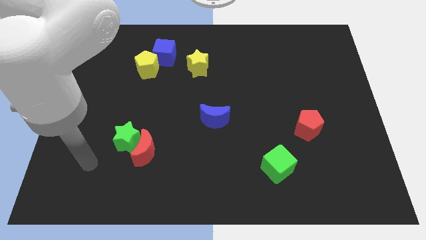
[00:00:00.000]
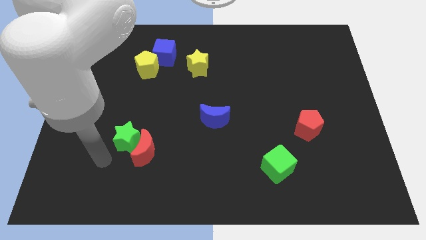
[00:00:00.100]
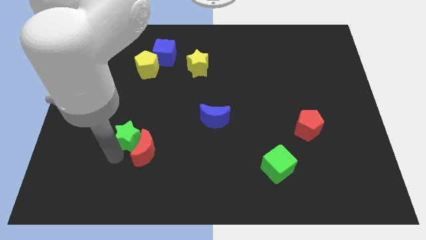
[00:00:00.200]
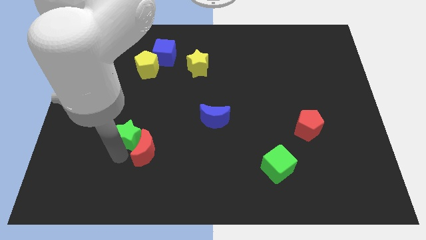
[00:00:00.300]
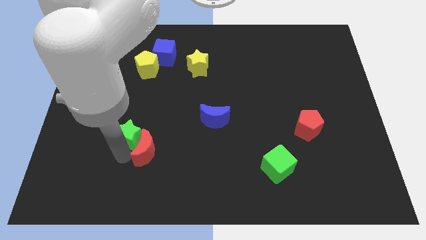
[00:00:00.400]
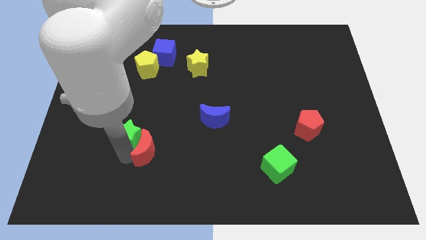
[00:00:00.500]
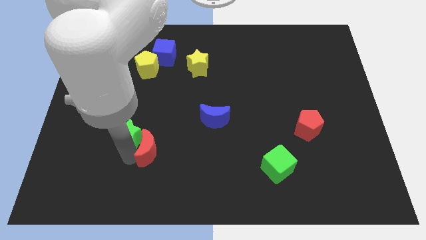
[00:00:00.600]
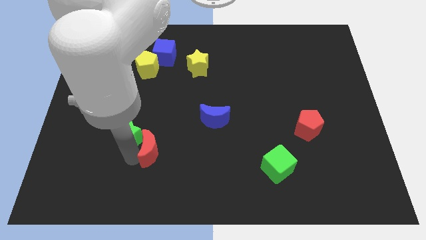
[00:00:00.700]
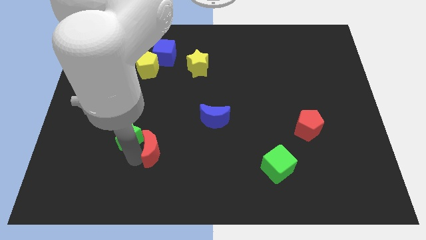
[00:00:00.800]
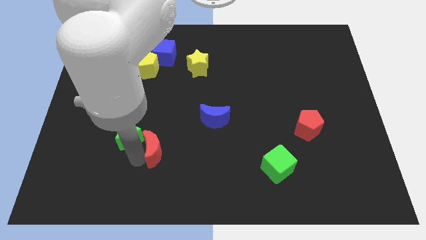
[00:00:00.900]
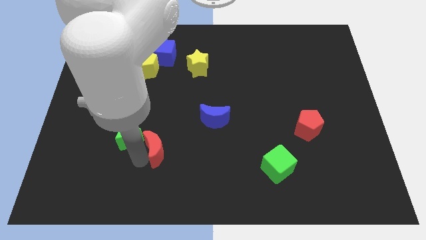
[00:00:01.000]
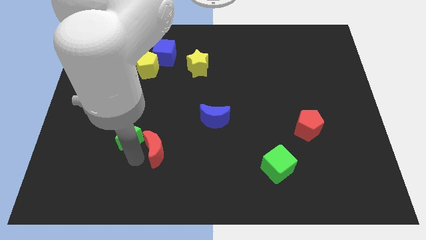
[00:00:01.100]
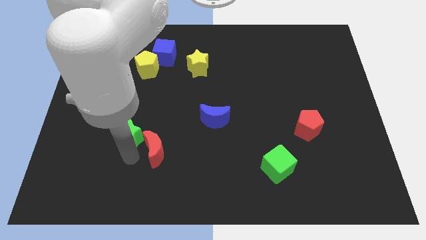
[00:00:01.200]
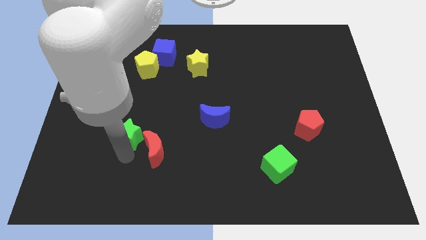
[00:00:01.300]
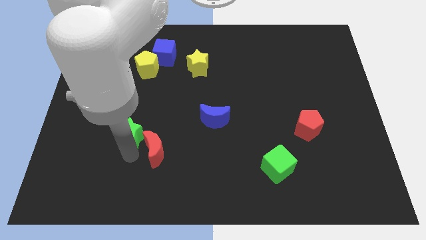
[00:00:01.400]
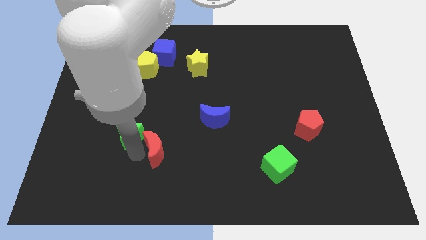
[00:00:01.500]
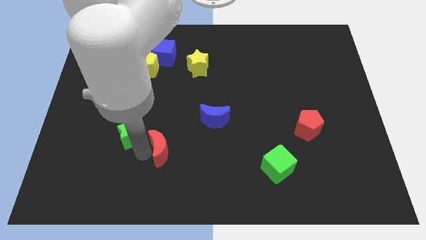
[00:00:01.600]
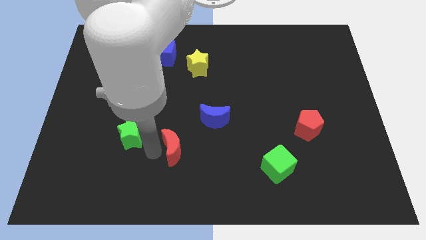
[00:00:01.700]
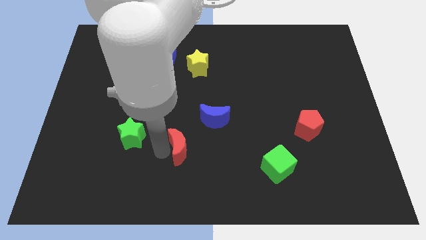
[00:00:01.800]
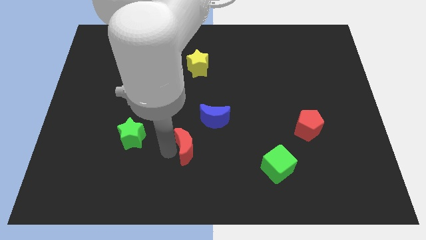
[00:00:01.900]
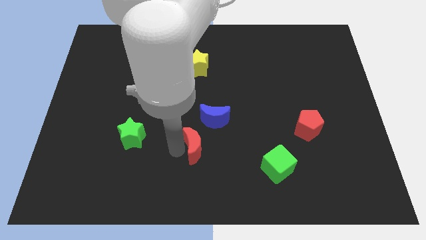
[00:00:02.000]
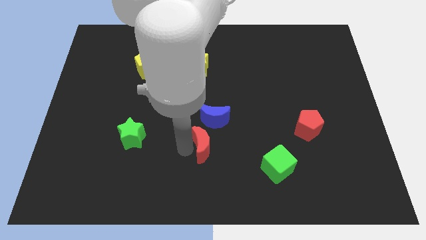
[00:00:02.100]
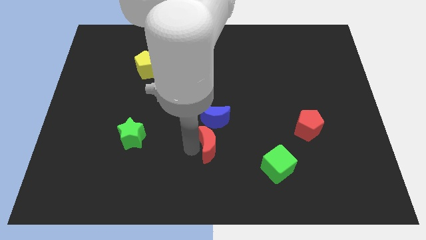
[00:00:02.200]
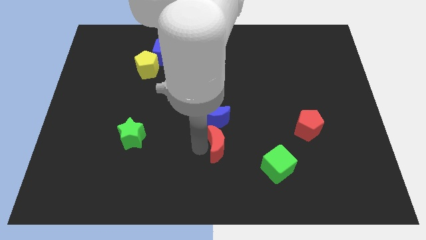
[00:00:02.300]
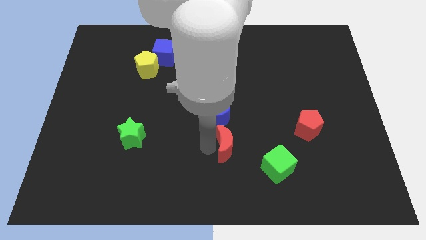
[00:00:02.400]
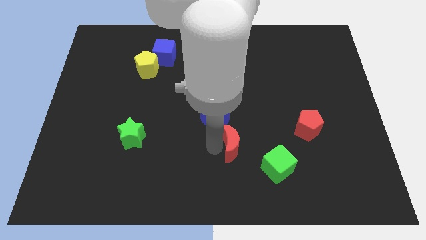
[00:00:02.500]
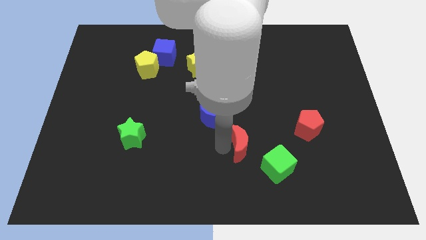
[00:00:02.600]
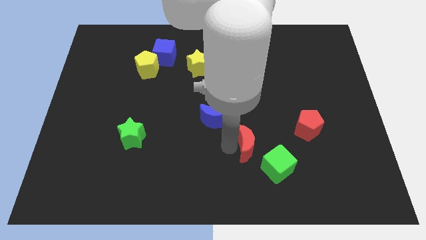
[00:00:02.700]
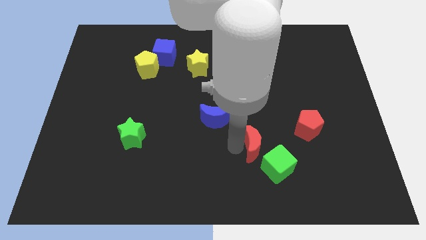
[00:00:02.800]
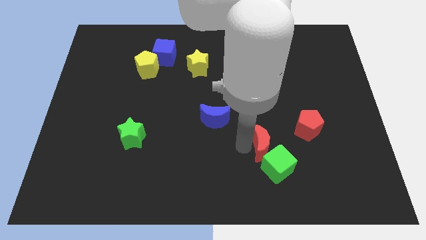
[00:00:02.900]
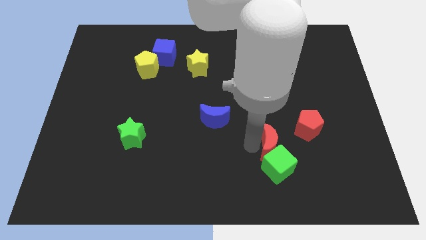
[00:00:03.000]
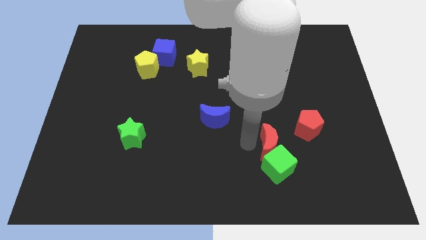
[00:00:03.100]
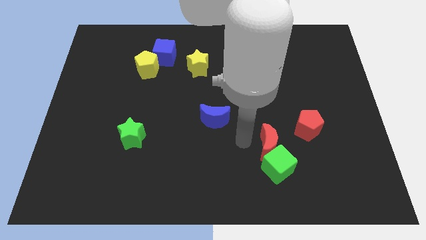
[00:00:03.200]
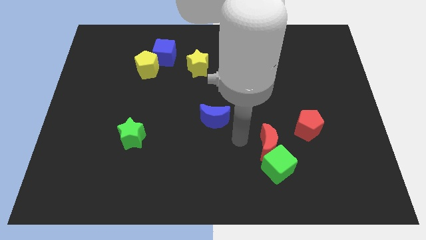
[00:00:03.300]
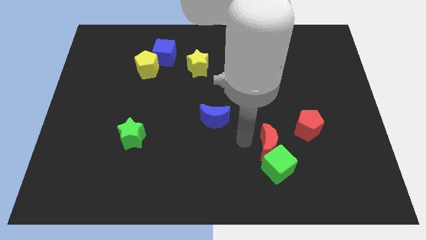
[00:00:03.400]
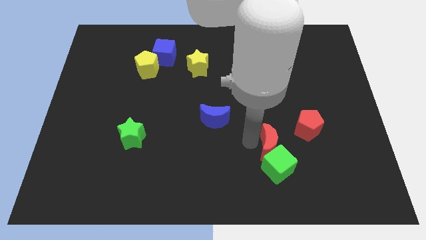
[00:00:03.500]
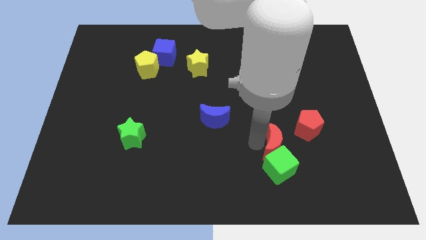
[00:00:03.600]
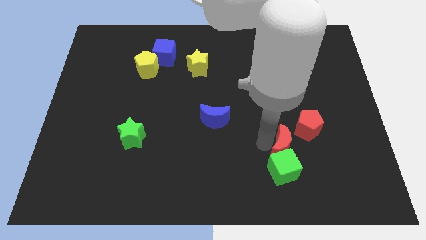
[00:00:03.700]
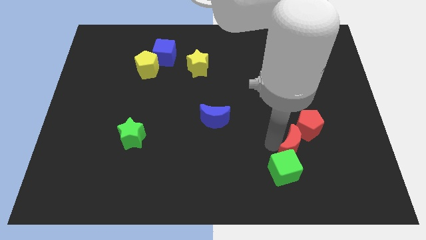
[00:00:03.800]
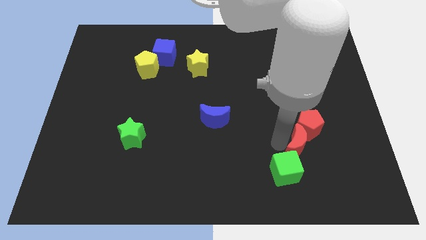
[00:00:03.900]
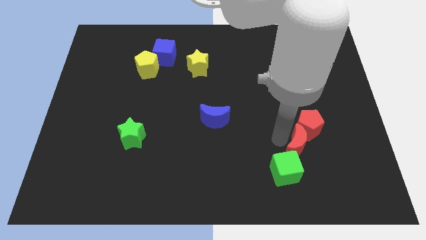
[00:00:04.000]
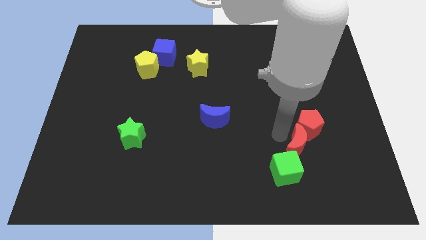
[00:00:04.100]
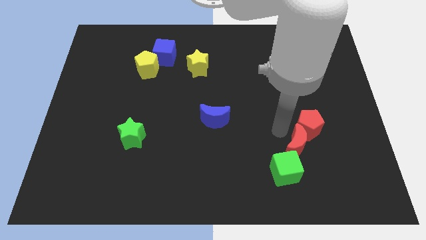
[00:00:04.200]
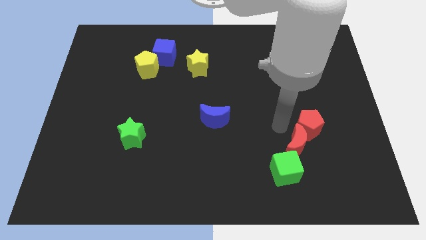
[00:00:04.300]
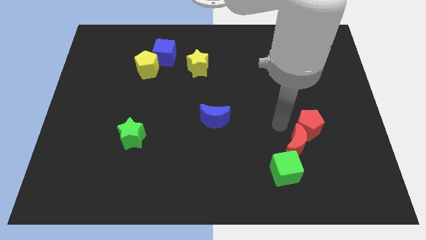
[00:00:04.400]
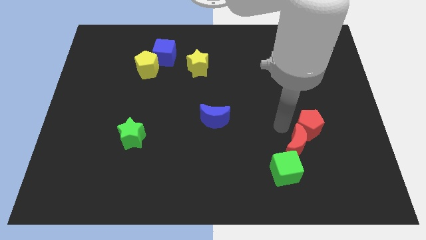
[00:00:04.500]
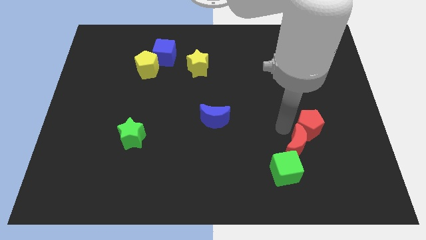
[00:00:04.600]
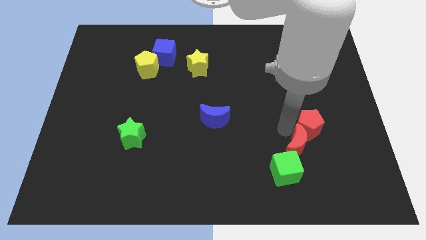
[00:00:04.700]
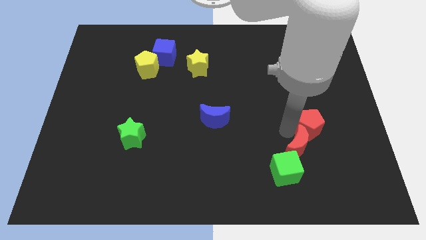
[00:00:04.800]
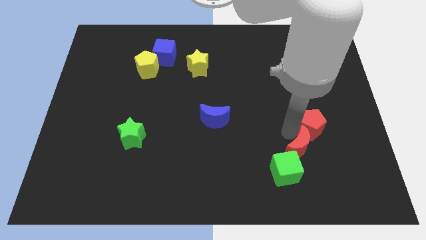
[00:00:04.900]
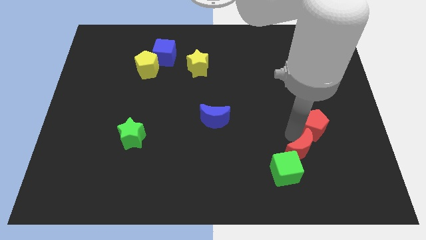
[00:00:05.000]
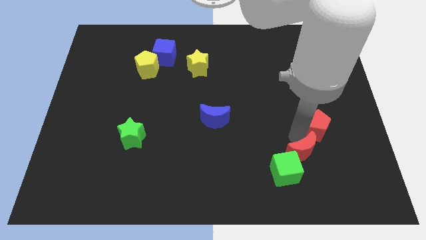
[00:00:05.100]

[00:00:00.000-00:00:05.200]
put the red moon just right of the green cube

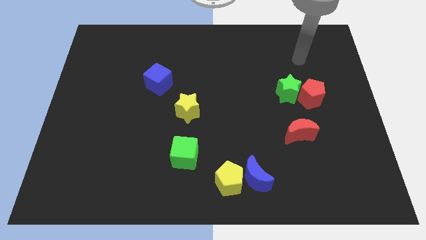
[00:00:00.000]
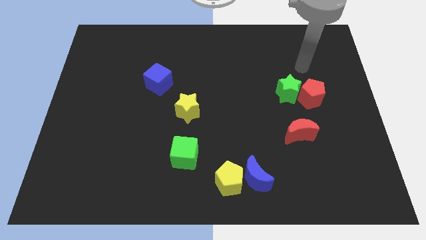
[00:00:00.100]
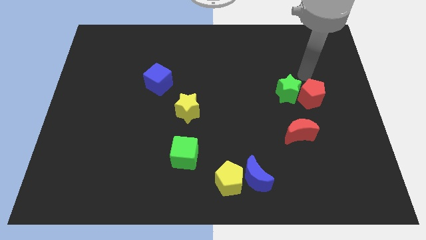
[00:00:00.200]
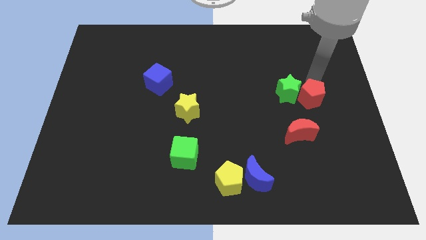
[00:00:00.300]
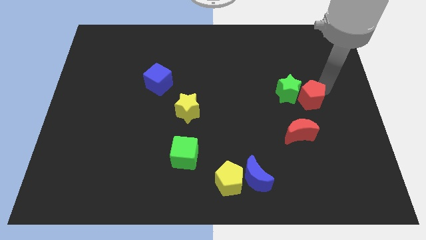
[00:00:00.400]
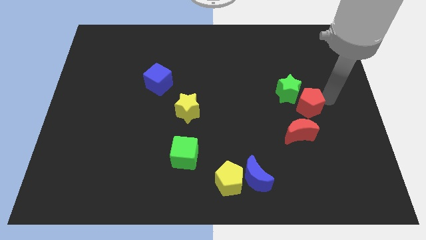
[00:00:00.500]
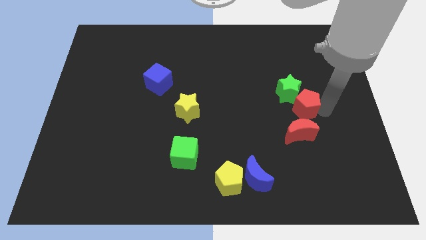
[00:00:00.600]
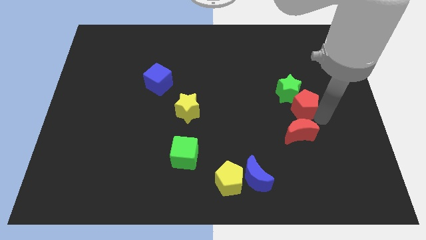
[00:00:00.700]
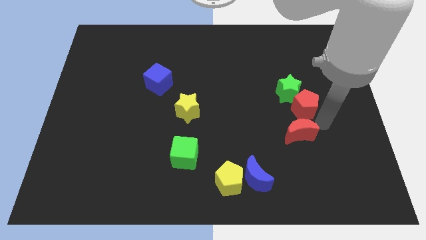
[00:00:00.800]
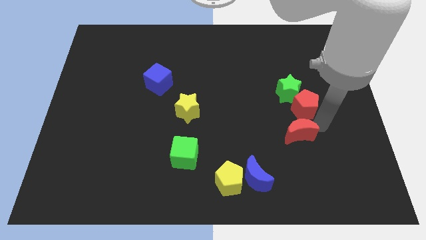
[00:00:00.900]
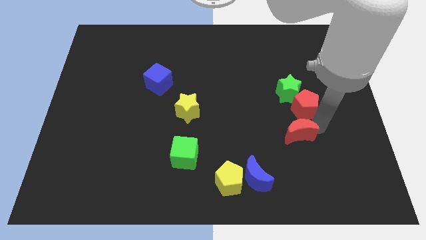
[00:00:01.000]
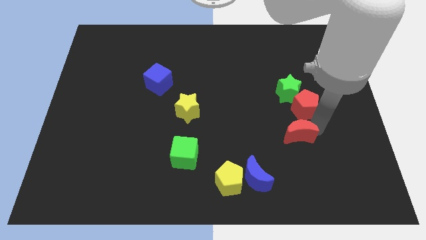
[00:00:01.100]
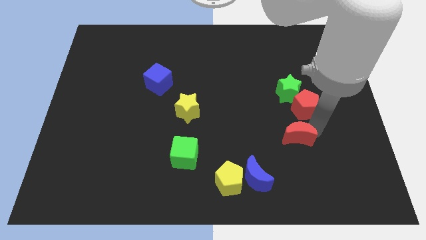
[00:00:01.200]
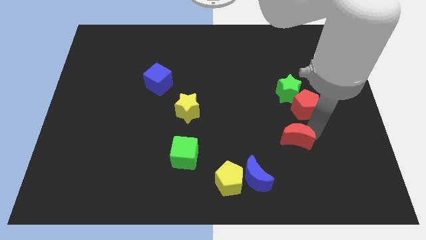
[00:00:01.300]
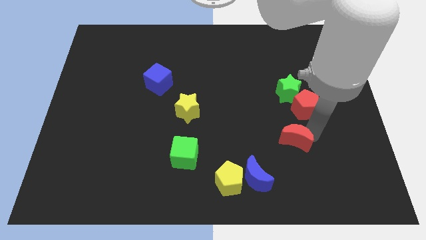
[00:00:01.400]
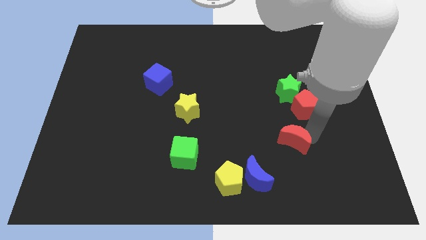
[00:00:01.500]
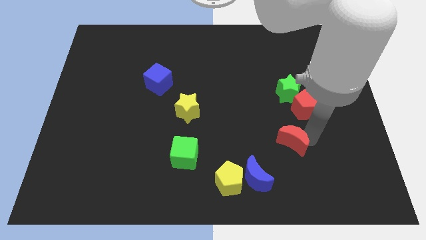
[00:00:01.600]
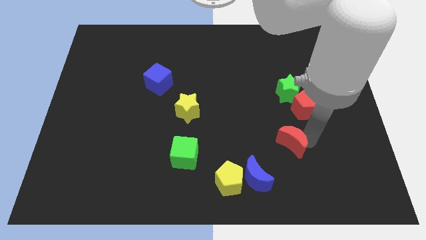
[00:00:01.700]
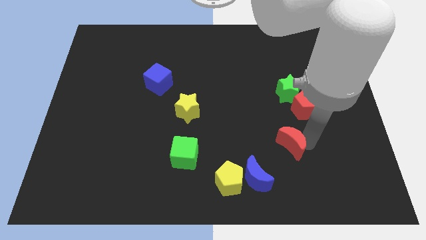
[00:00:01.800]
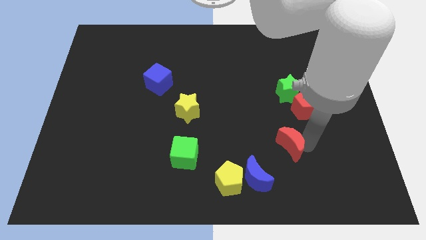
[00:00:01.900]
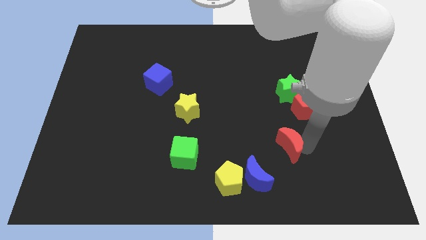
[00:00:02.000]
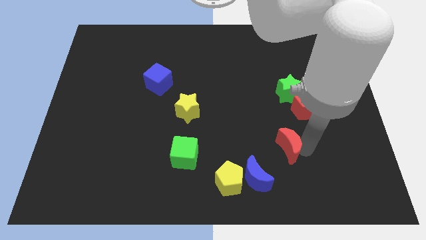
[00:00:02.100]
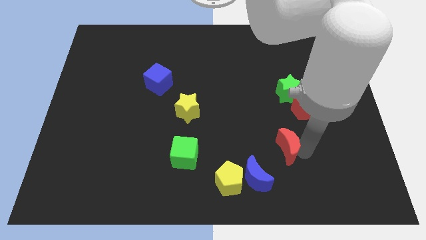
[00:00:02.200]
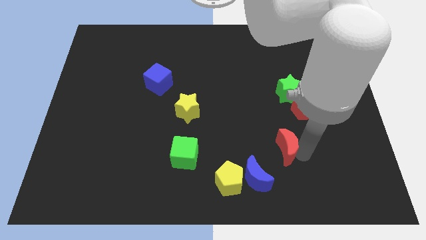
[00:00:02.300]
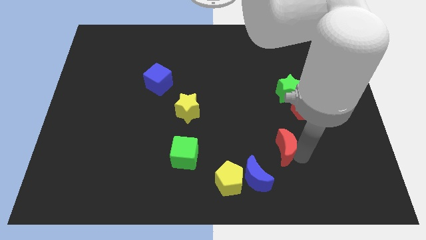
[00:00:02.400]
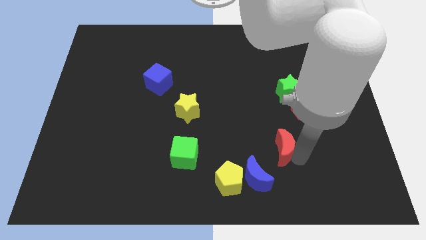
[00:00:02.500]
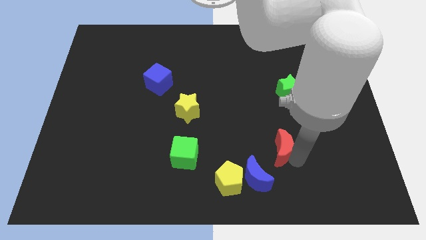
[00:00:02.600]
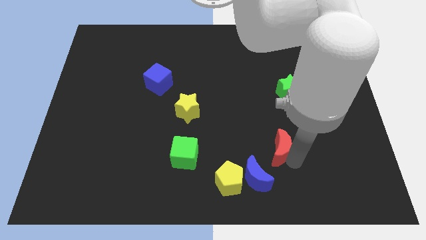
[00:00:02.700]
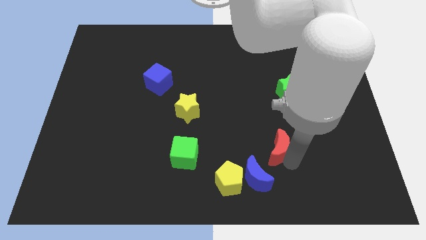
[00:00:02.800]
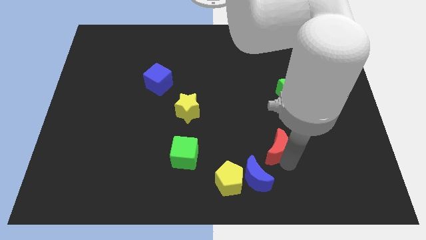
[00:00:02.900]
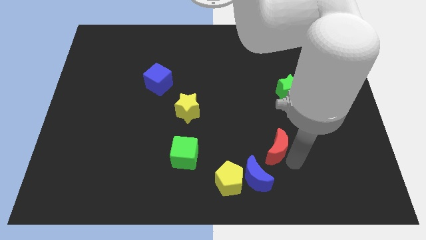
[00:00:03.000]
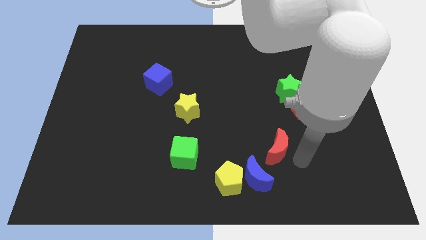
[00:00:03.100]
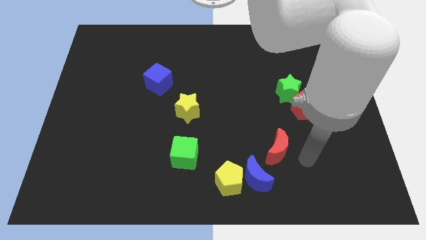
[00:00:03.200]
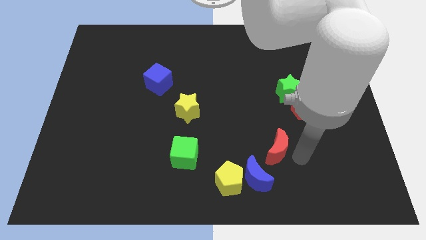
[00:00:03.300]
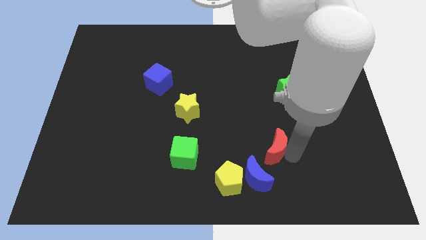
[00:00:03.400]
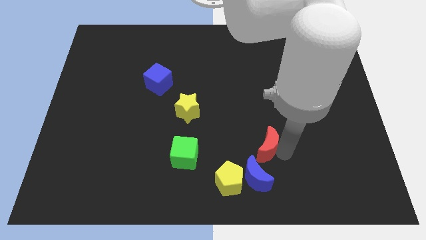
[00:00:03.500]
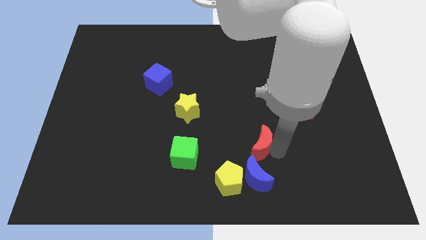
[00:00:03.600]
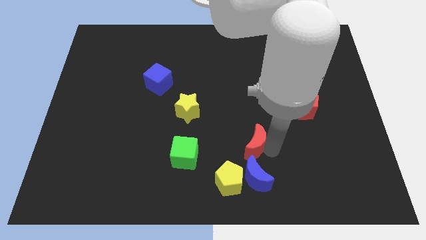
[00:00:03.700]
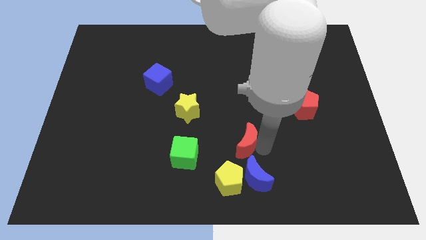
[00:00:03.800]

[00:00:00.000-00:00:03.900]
move the red moon to the top side of the yellow pentagon
